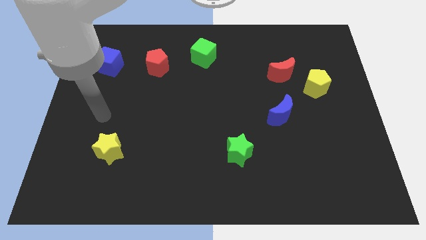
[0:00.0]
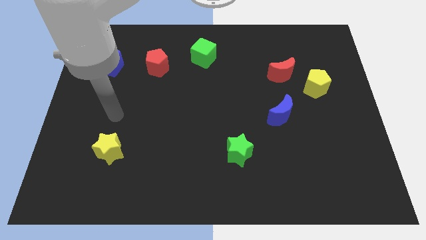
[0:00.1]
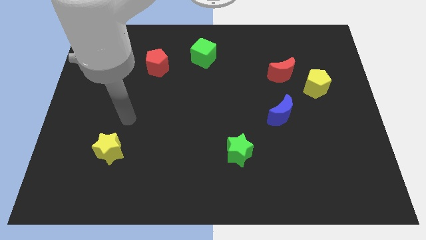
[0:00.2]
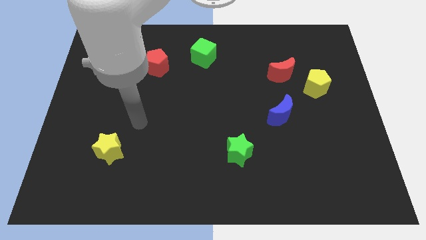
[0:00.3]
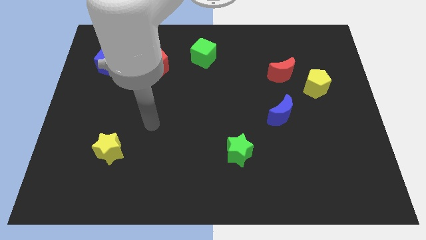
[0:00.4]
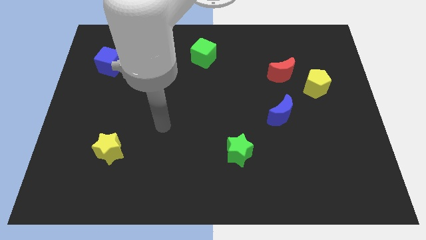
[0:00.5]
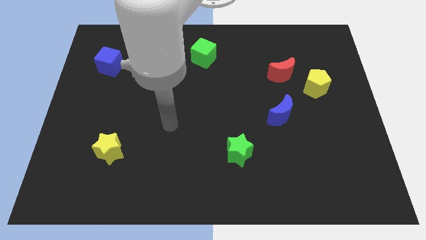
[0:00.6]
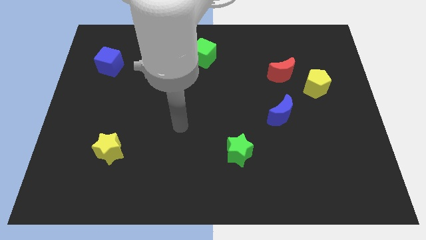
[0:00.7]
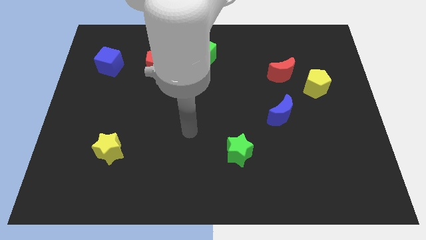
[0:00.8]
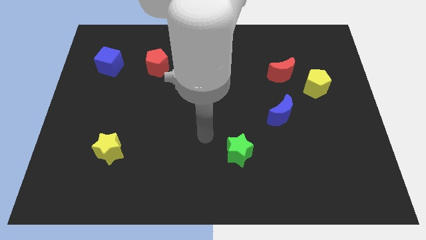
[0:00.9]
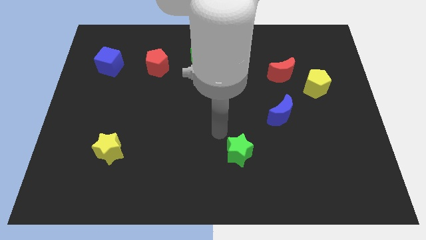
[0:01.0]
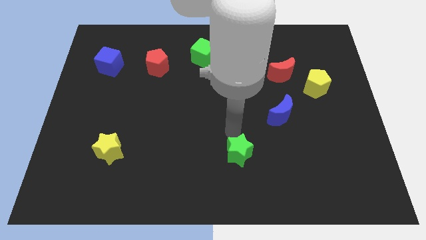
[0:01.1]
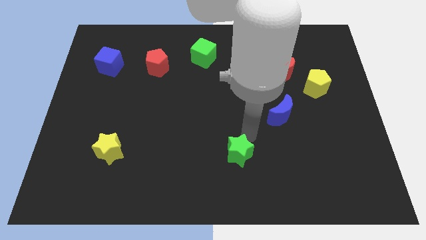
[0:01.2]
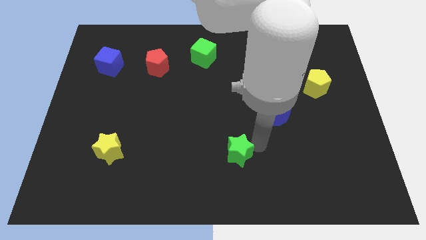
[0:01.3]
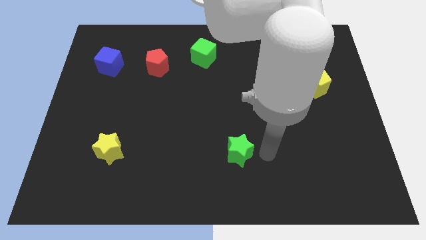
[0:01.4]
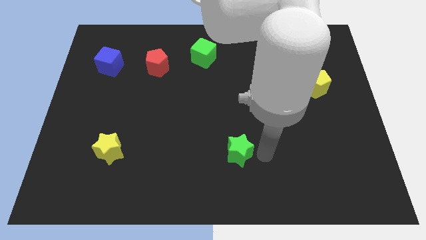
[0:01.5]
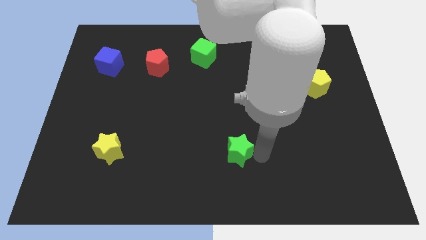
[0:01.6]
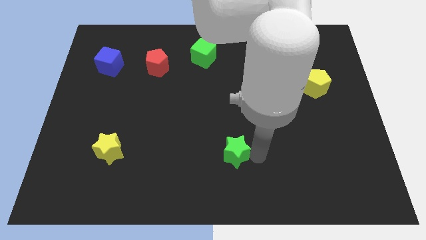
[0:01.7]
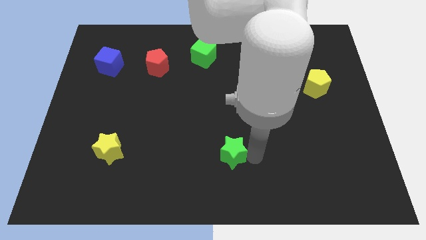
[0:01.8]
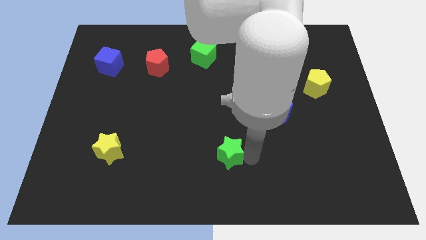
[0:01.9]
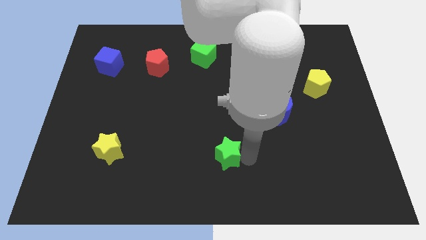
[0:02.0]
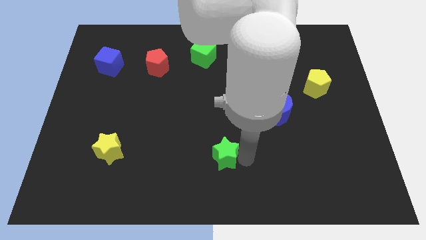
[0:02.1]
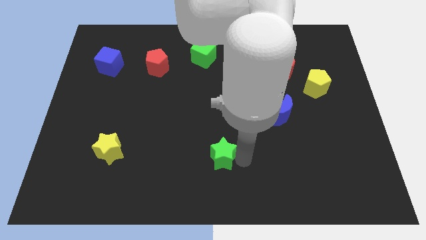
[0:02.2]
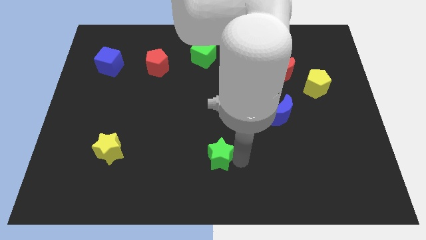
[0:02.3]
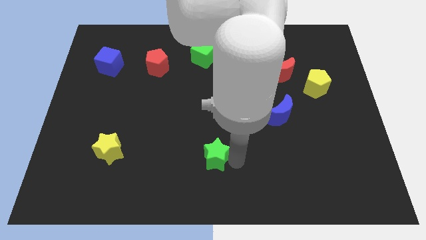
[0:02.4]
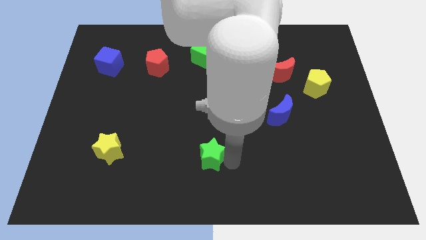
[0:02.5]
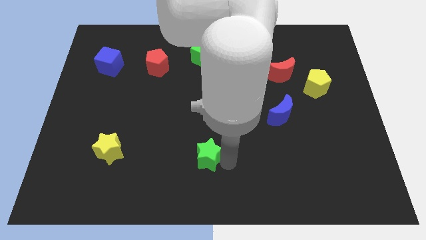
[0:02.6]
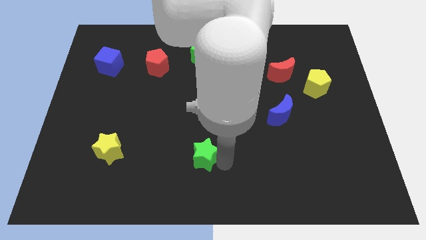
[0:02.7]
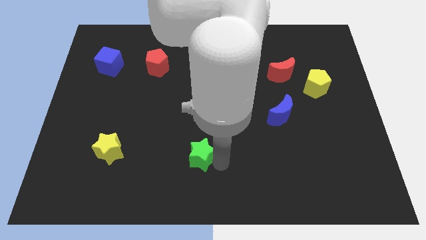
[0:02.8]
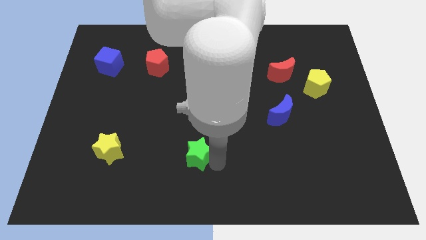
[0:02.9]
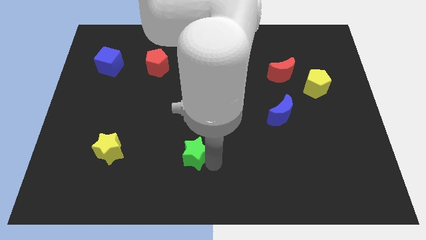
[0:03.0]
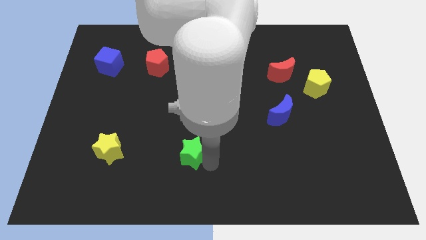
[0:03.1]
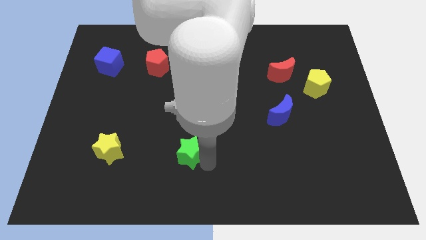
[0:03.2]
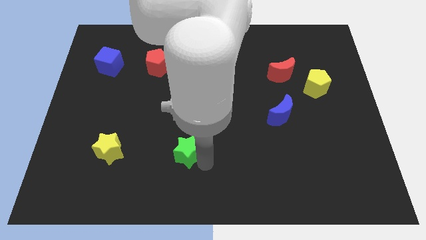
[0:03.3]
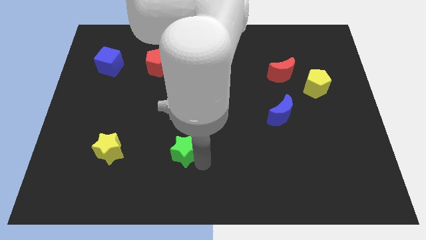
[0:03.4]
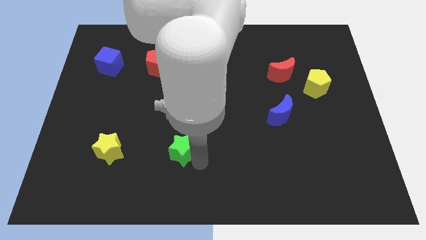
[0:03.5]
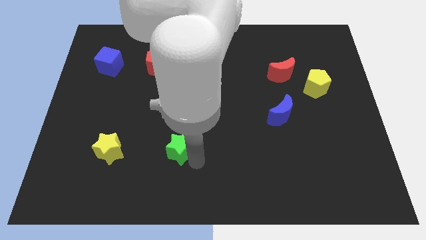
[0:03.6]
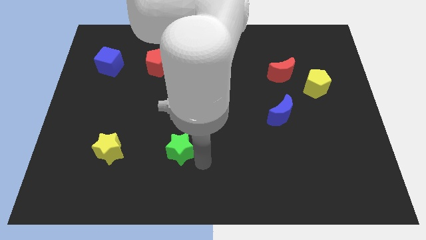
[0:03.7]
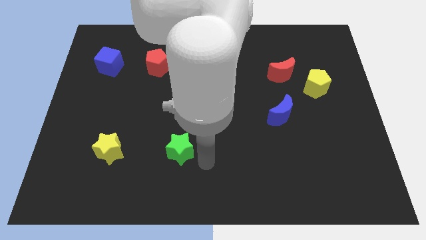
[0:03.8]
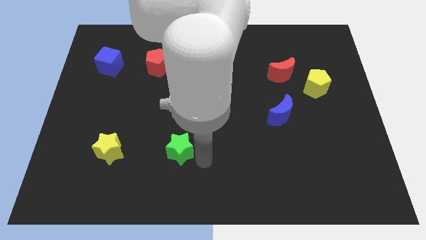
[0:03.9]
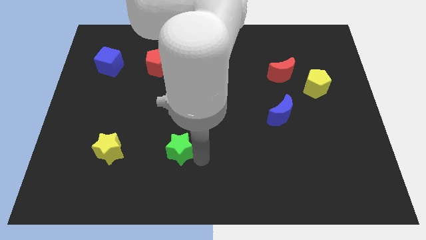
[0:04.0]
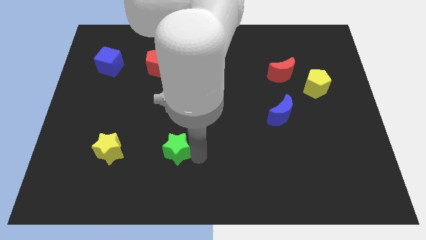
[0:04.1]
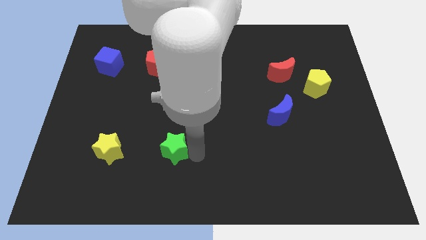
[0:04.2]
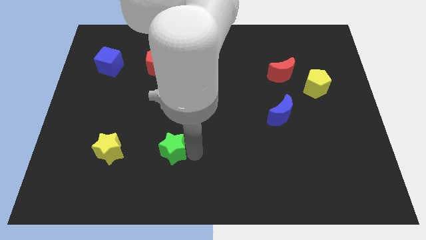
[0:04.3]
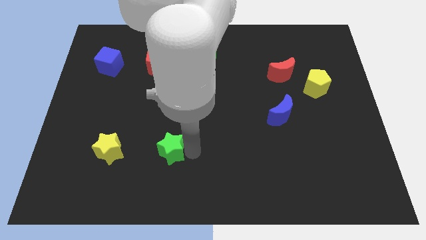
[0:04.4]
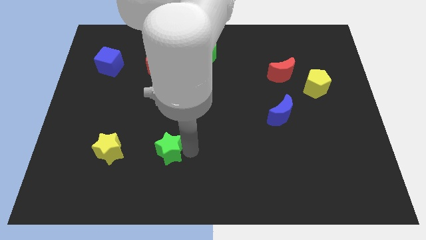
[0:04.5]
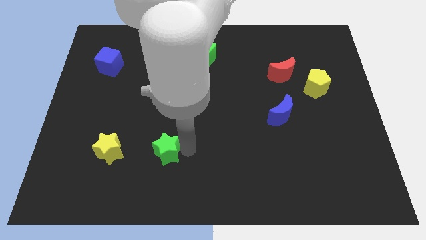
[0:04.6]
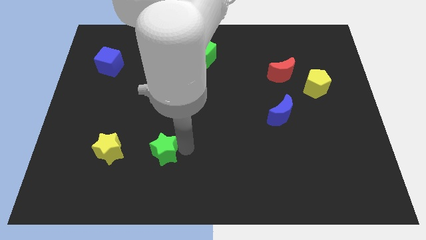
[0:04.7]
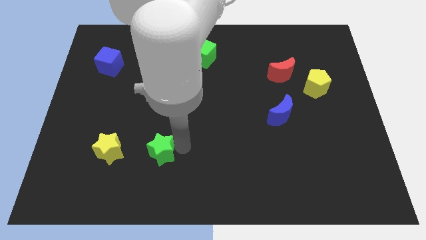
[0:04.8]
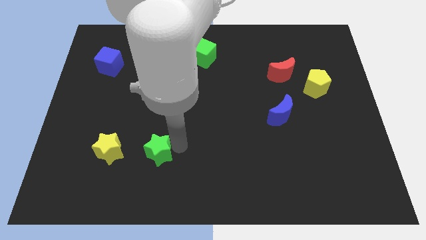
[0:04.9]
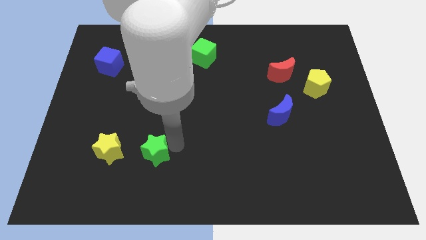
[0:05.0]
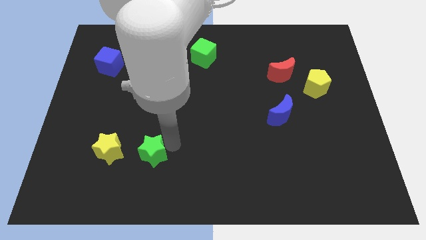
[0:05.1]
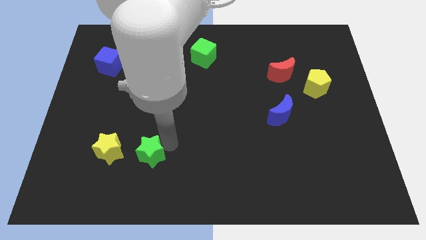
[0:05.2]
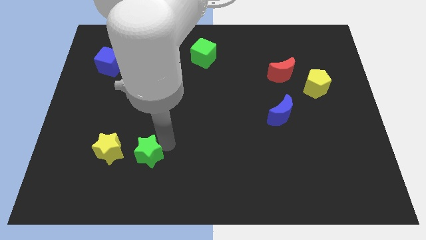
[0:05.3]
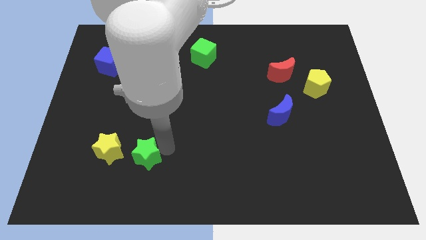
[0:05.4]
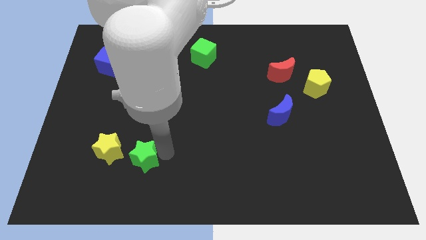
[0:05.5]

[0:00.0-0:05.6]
slide the green star left

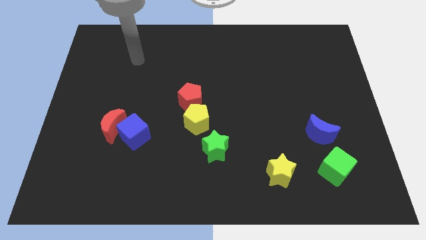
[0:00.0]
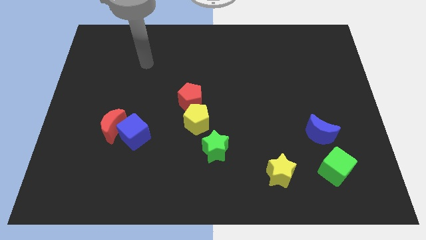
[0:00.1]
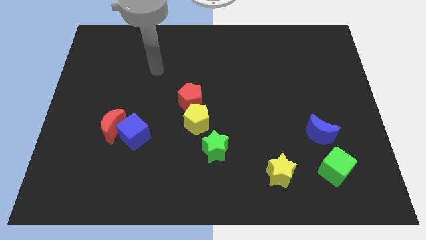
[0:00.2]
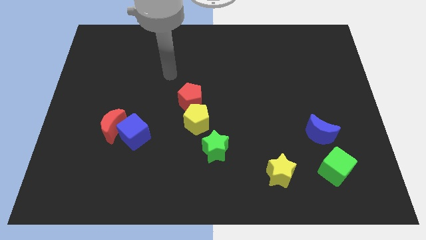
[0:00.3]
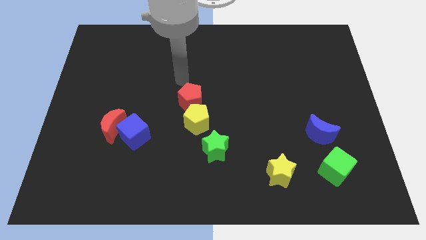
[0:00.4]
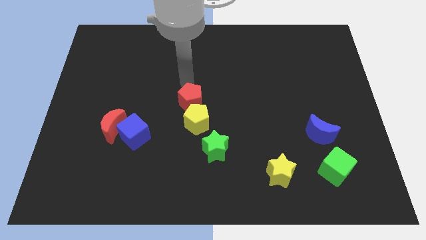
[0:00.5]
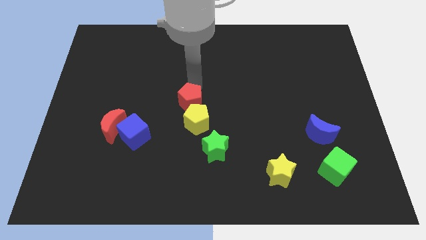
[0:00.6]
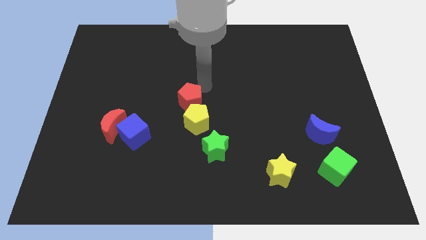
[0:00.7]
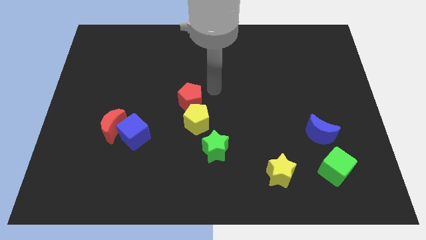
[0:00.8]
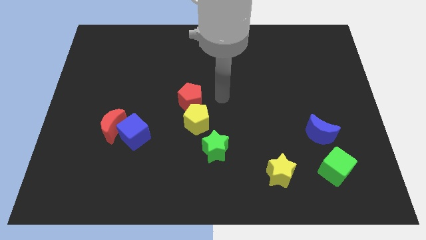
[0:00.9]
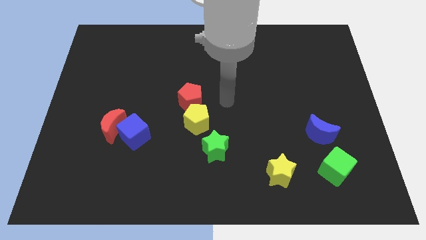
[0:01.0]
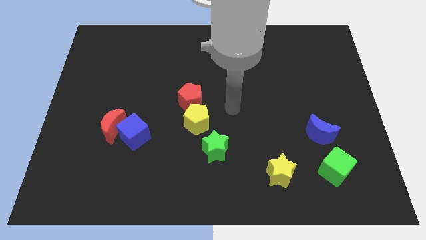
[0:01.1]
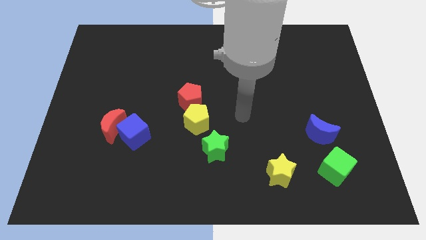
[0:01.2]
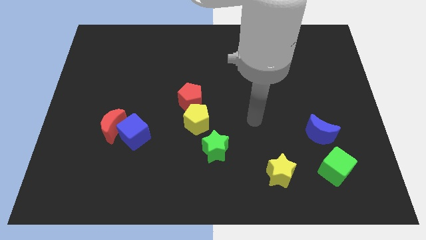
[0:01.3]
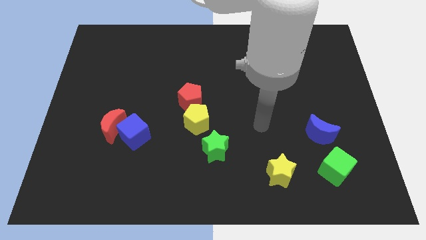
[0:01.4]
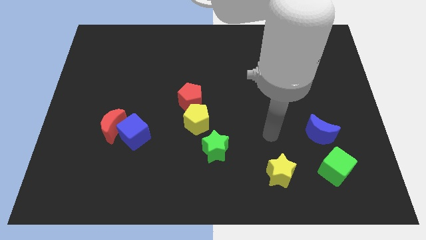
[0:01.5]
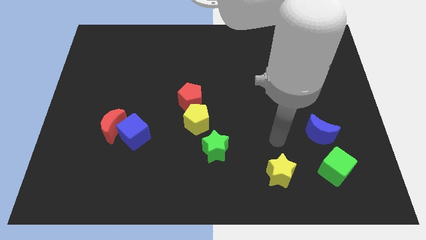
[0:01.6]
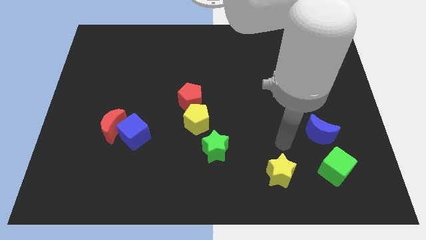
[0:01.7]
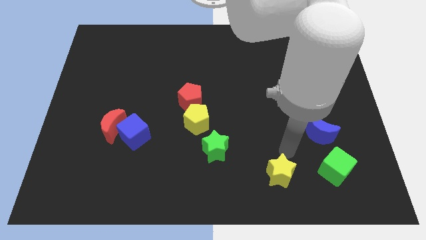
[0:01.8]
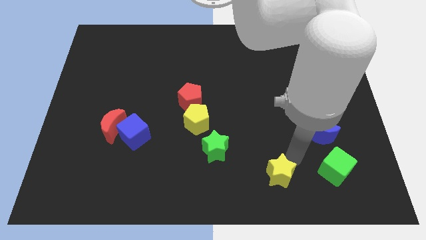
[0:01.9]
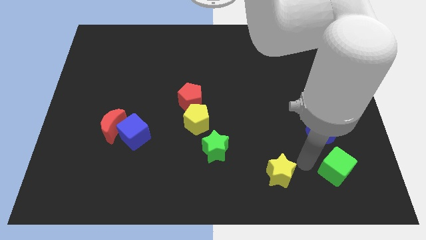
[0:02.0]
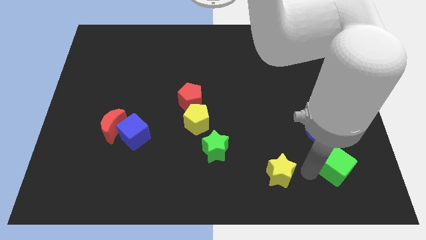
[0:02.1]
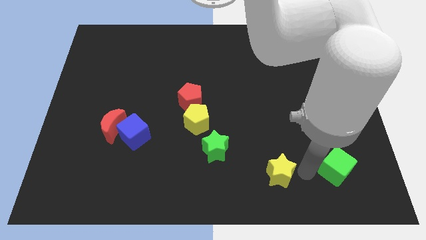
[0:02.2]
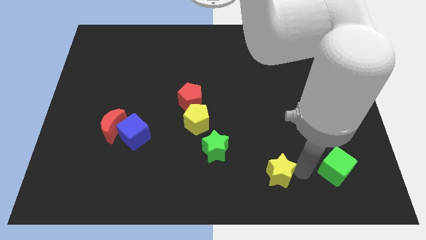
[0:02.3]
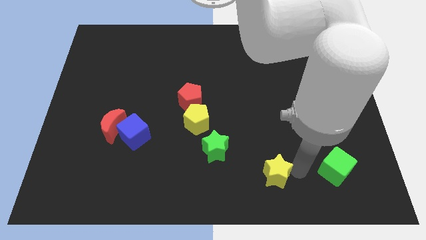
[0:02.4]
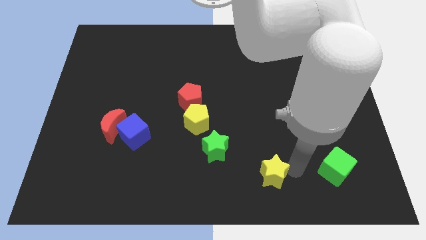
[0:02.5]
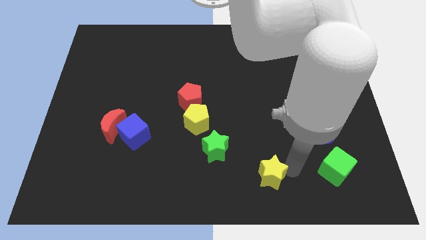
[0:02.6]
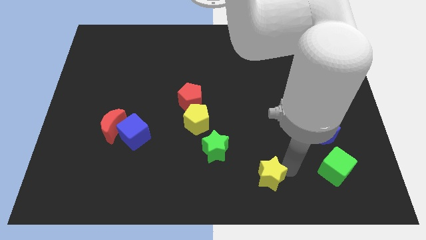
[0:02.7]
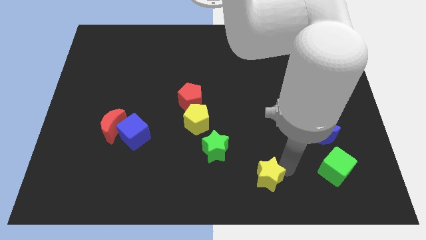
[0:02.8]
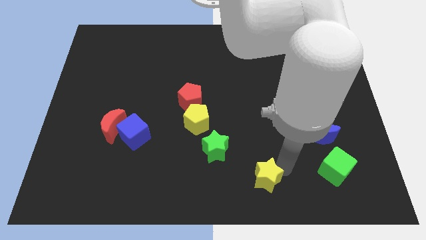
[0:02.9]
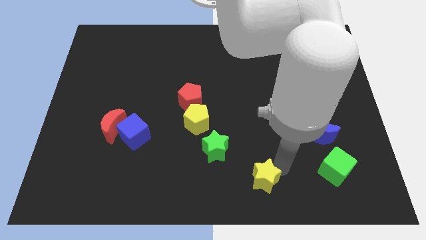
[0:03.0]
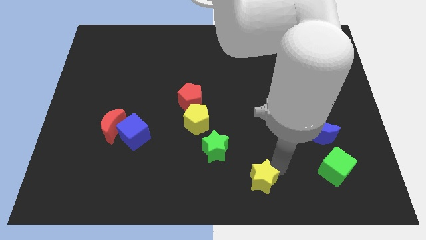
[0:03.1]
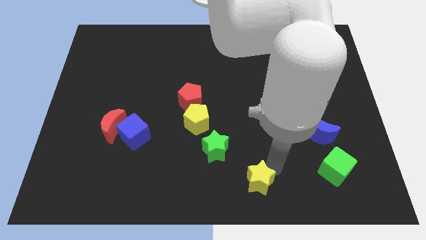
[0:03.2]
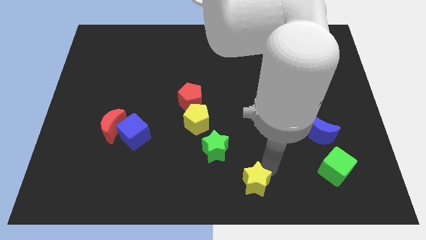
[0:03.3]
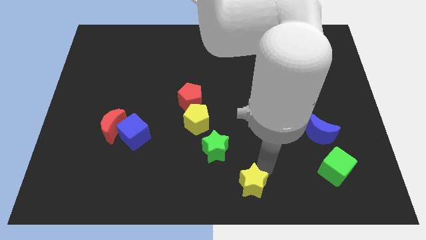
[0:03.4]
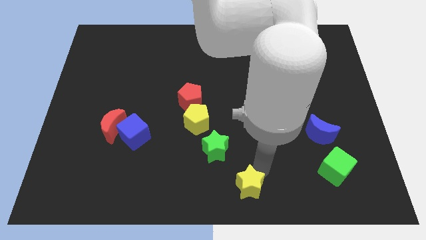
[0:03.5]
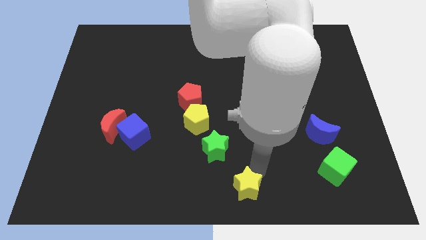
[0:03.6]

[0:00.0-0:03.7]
slightly slide the yellow star to the left
